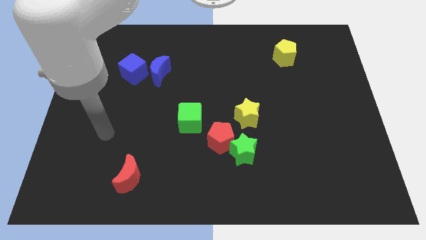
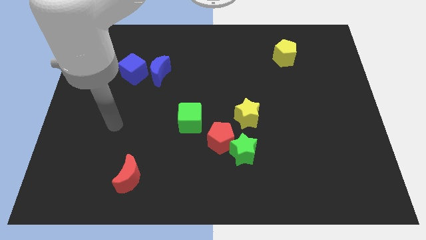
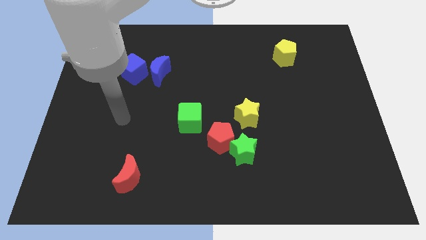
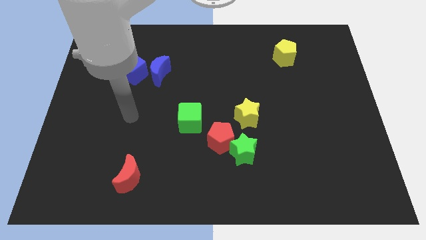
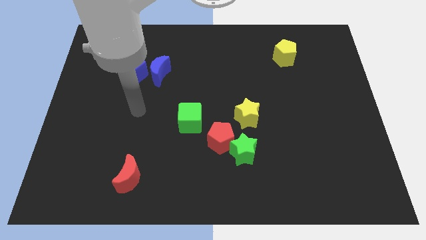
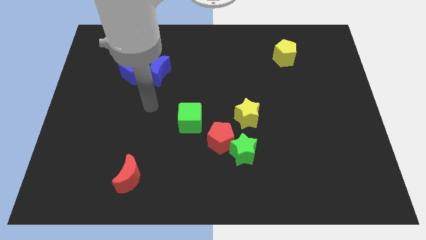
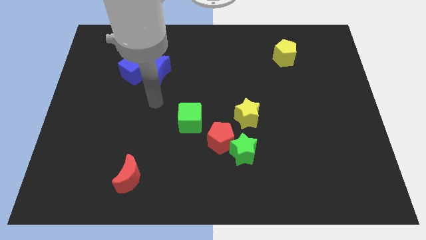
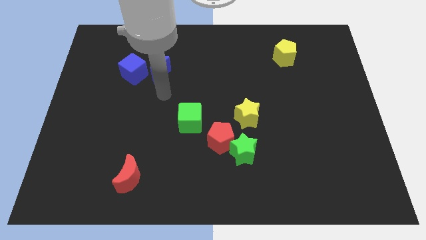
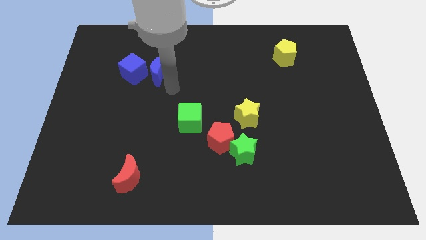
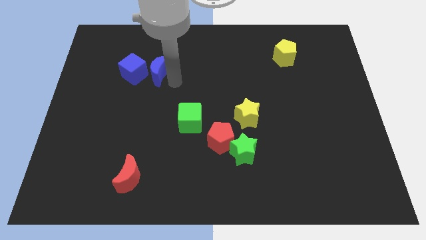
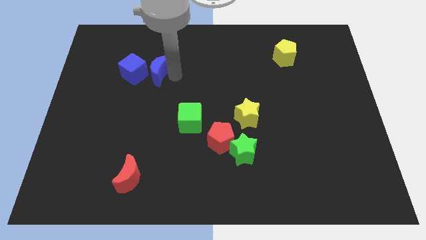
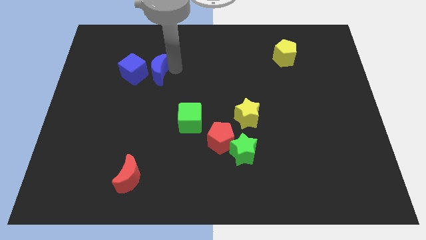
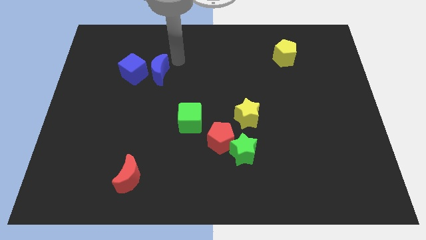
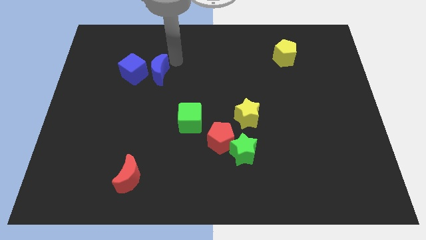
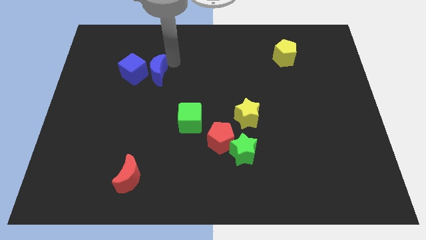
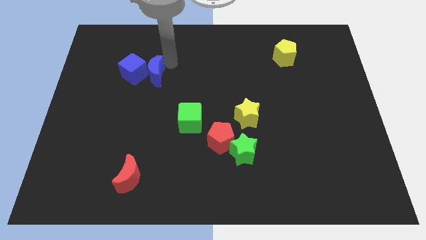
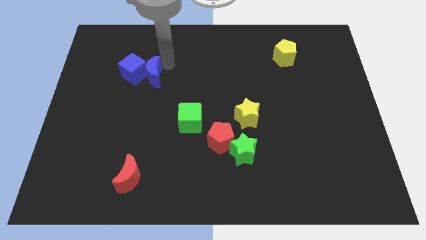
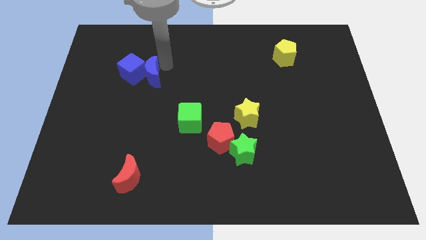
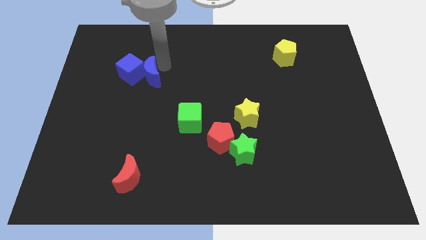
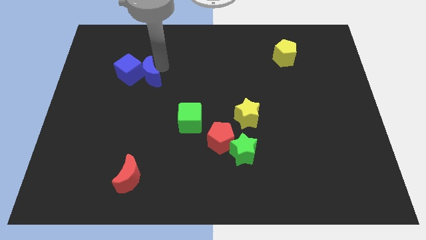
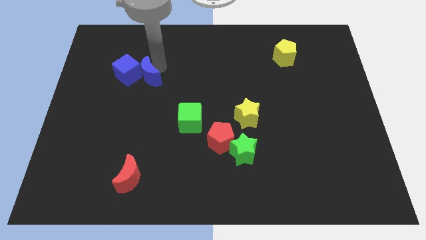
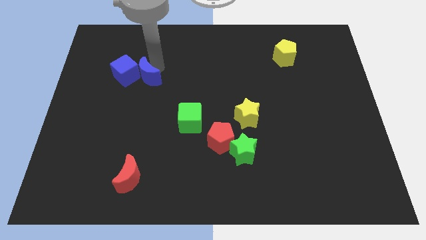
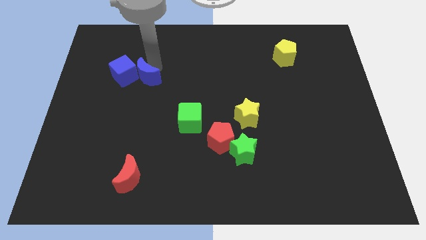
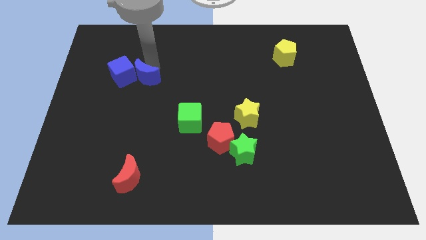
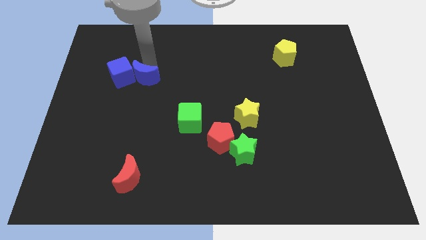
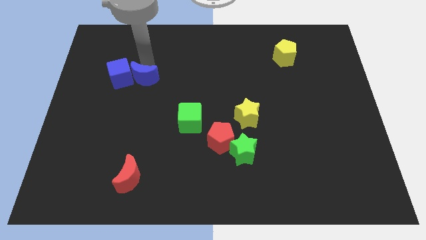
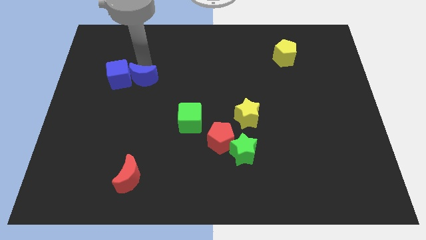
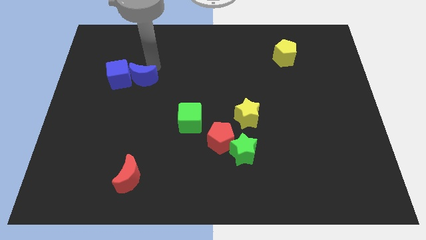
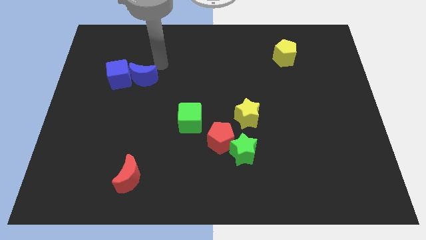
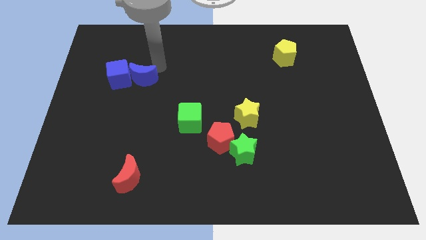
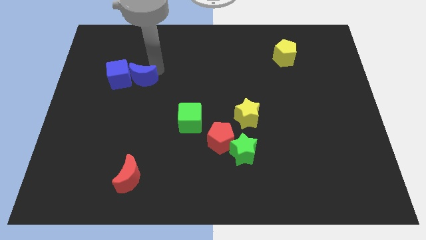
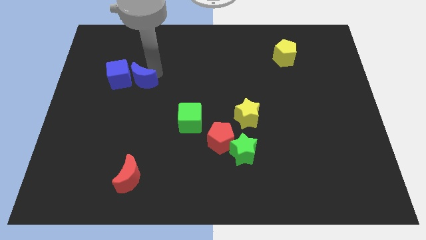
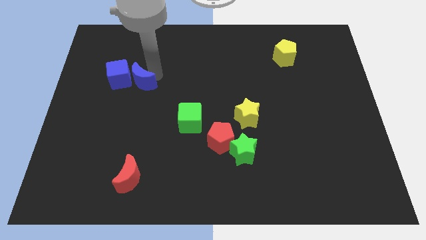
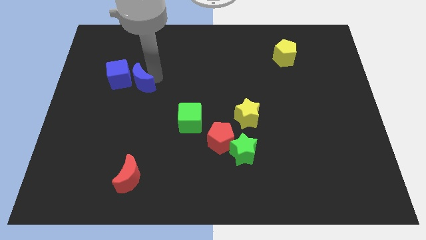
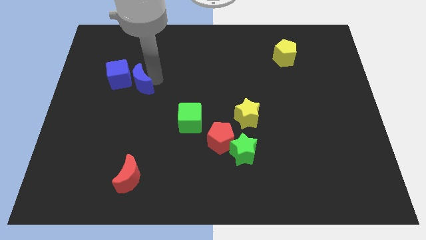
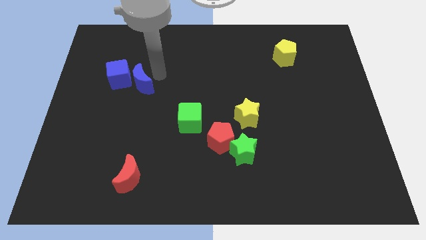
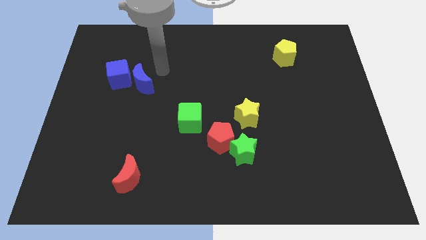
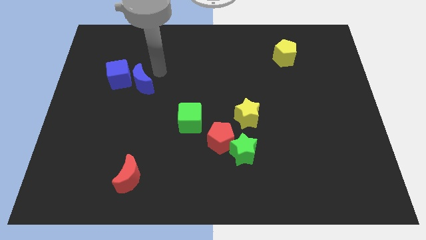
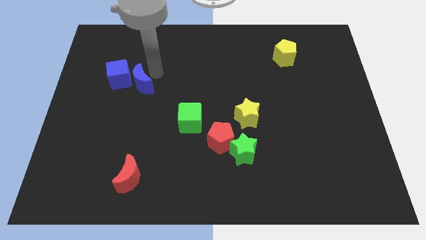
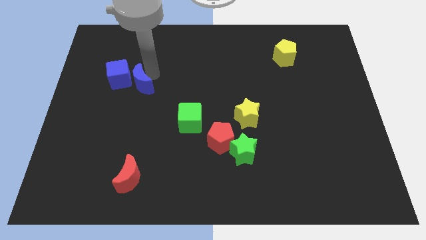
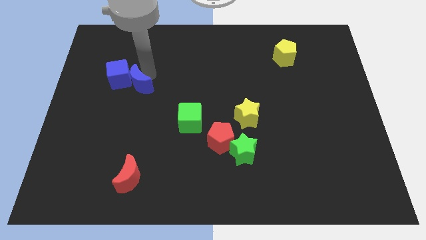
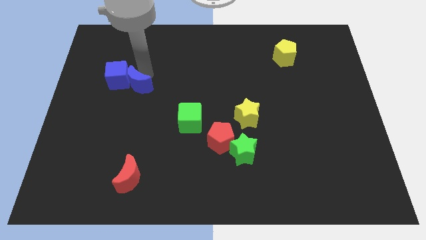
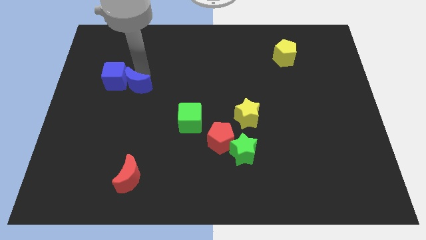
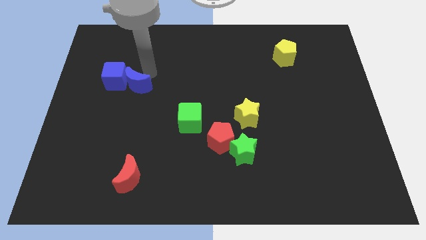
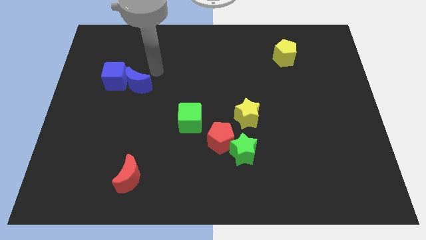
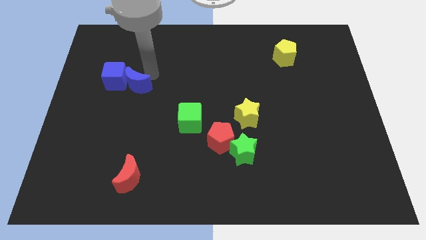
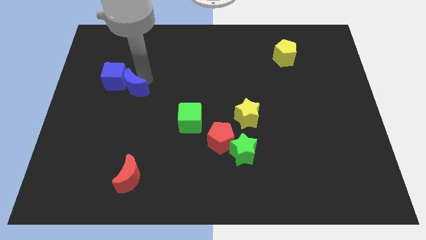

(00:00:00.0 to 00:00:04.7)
slightly slide the blue moon downwards and then left

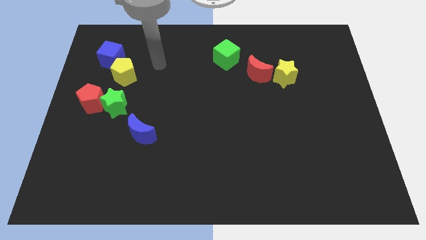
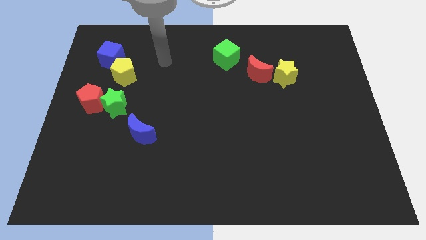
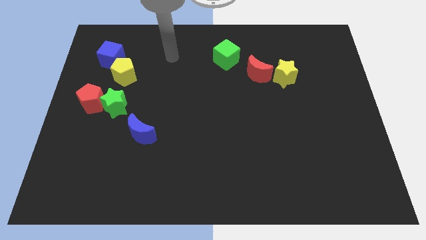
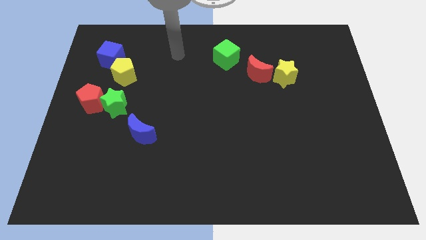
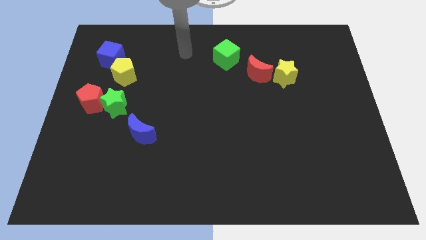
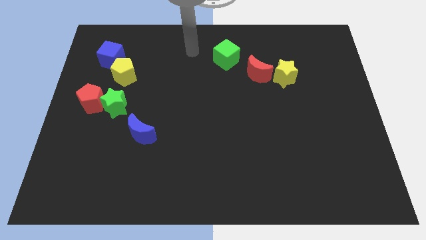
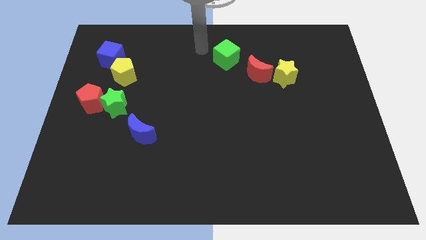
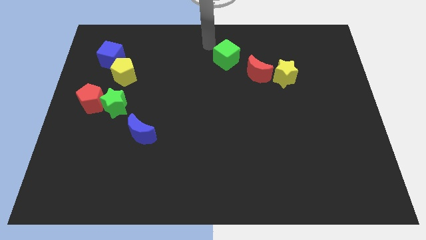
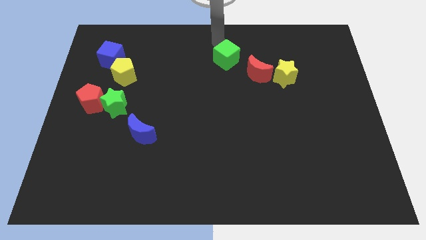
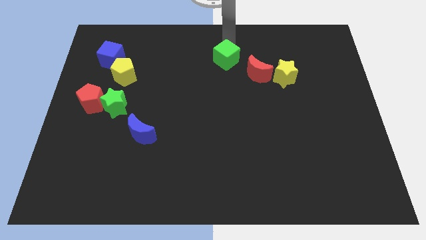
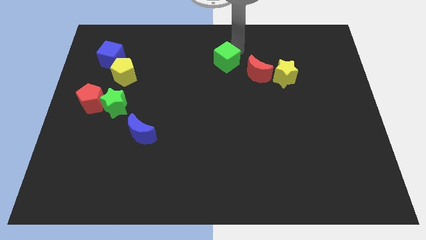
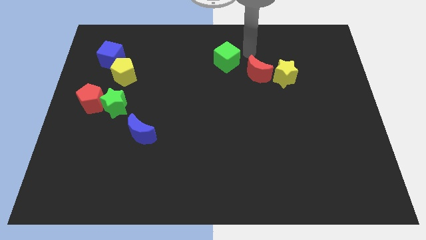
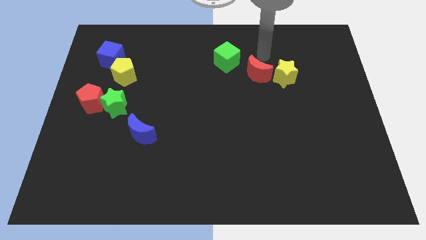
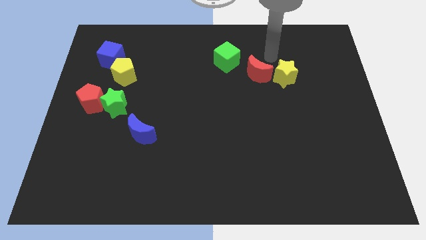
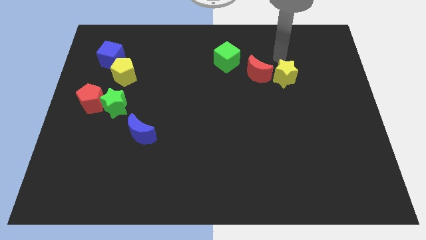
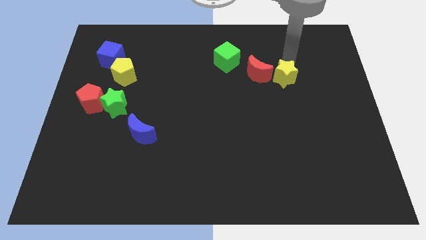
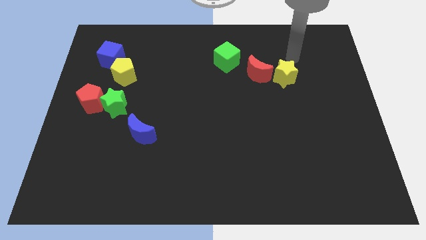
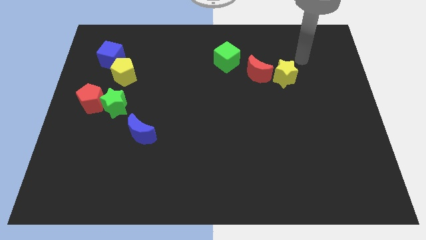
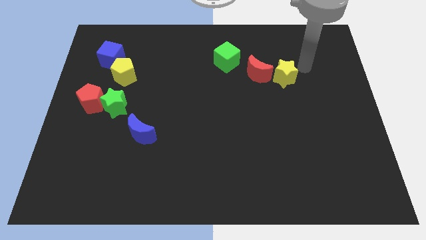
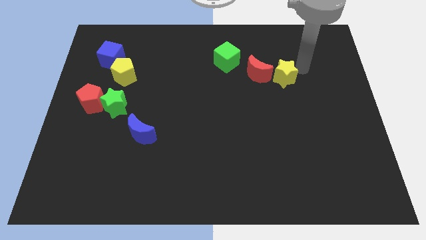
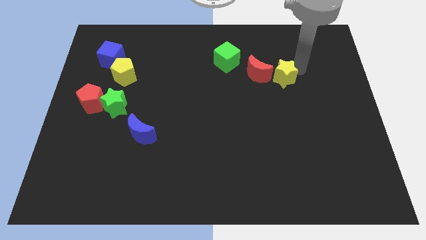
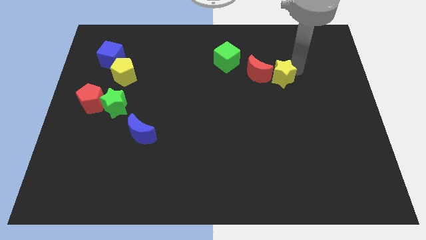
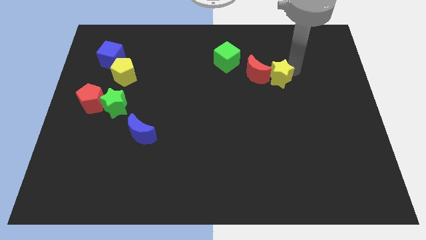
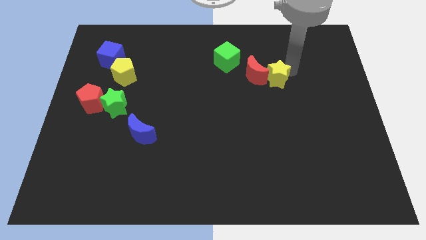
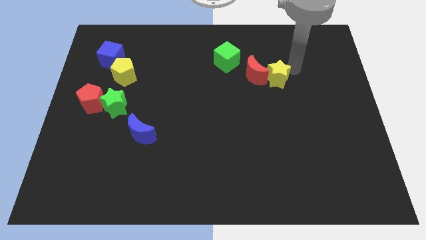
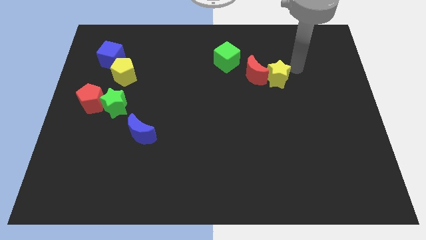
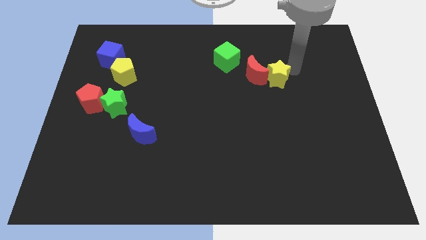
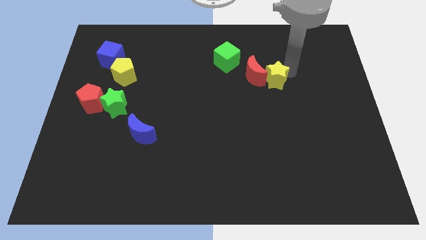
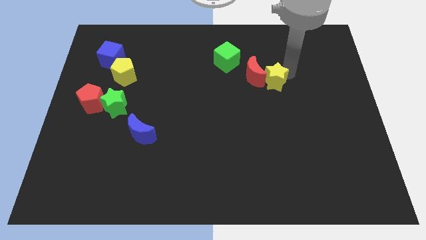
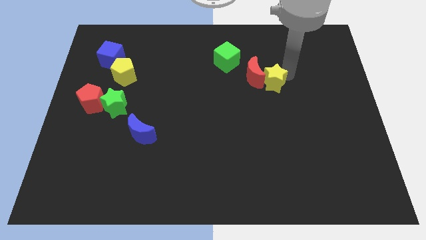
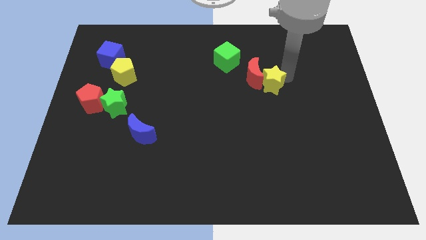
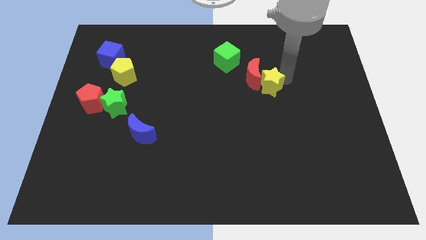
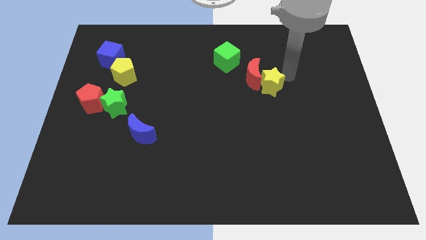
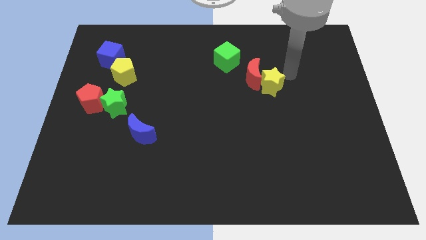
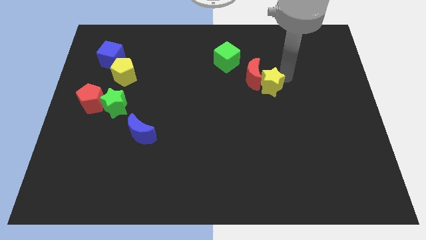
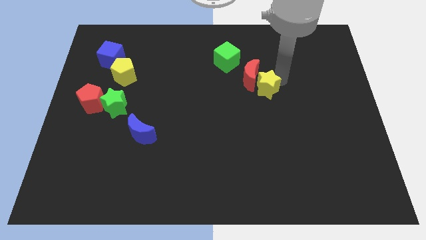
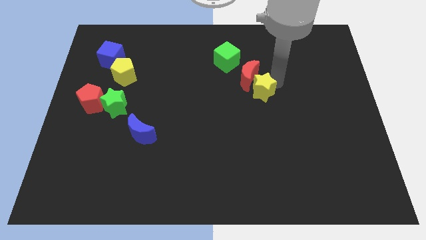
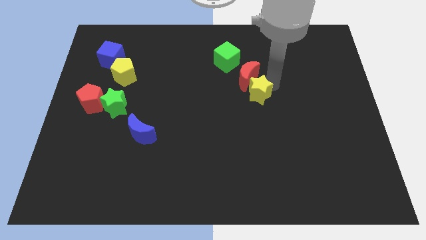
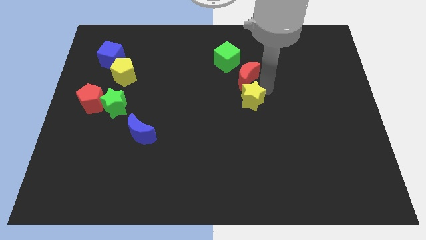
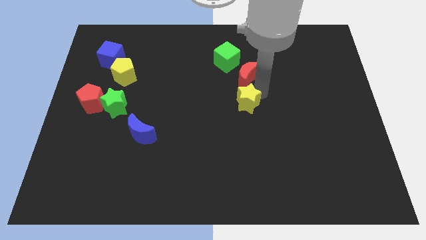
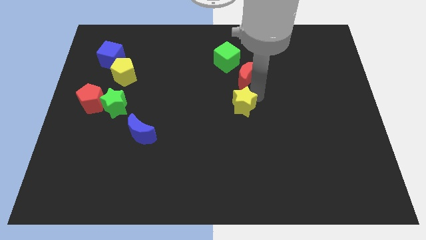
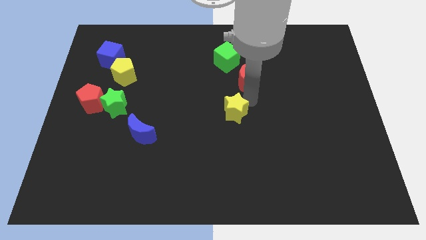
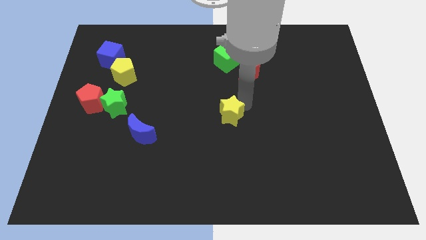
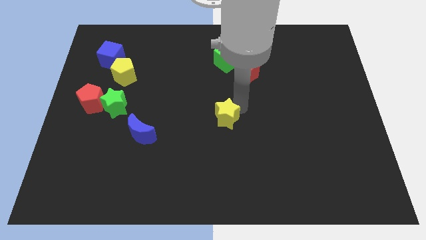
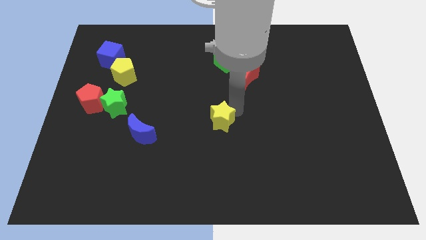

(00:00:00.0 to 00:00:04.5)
move the yellow star down and to the left diagonally
